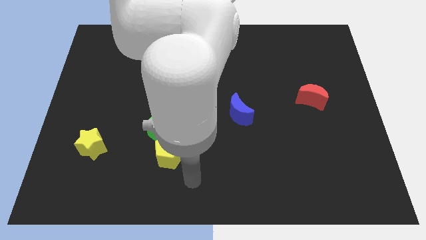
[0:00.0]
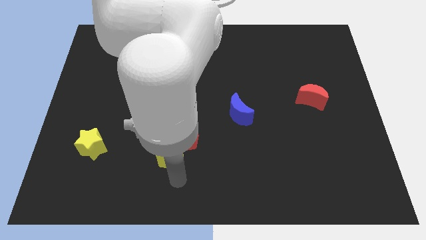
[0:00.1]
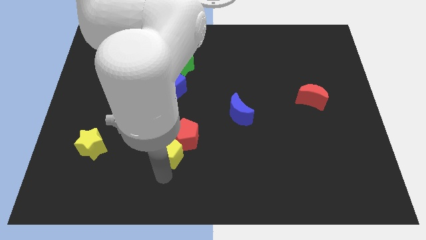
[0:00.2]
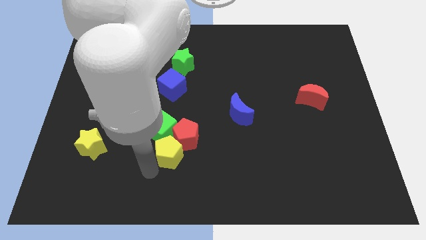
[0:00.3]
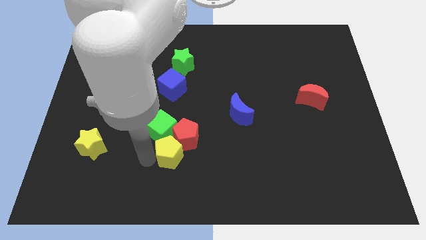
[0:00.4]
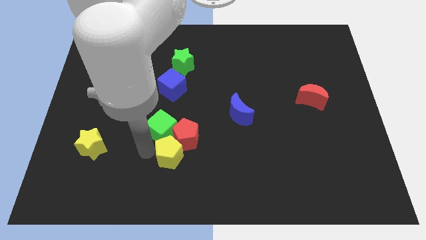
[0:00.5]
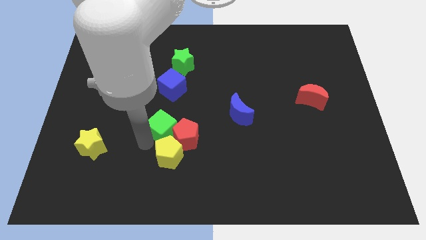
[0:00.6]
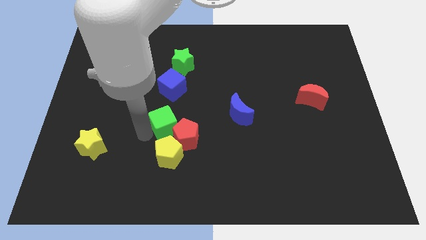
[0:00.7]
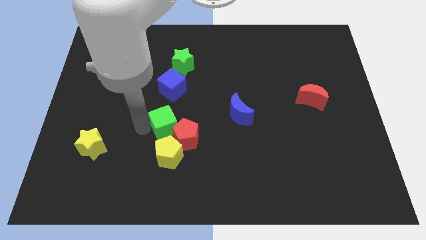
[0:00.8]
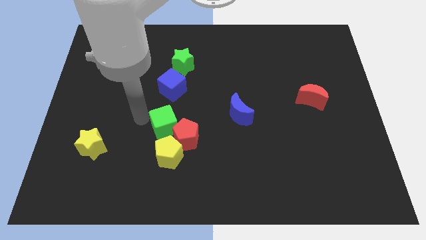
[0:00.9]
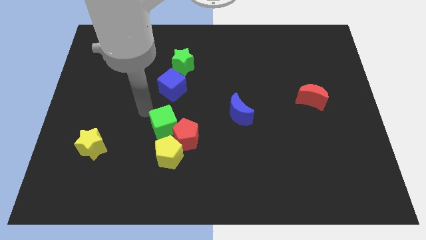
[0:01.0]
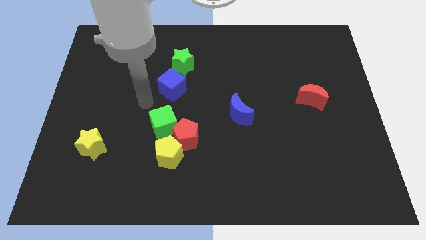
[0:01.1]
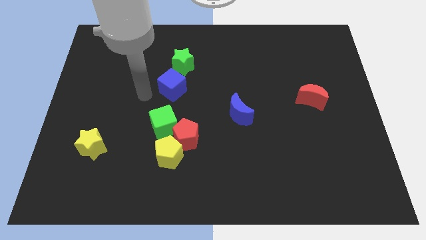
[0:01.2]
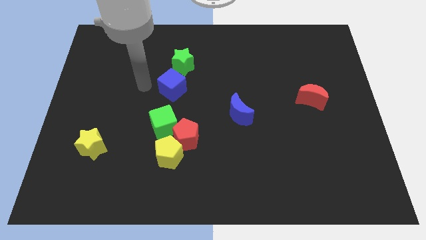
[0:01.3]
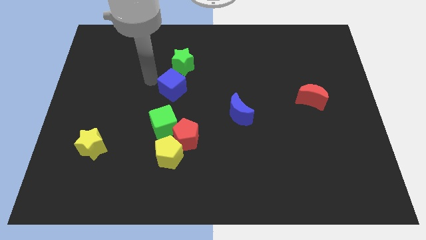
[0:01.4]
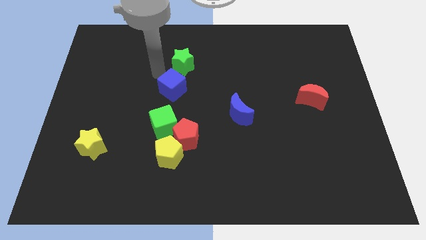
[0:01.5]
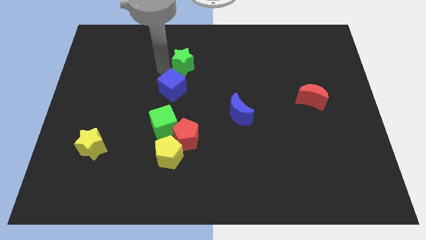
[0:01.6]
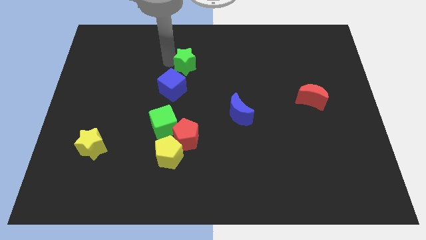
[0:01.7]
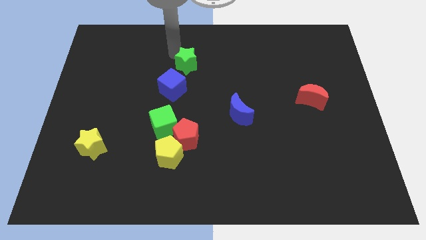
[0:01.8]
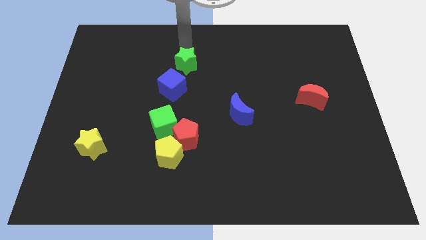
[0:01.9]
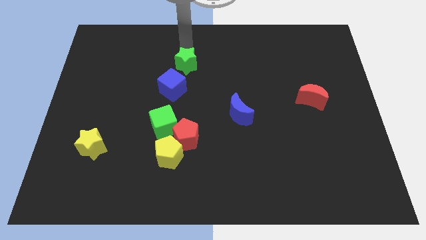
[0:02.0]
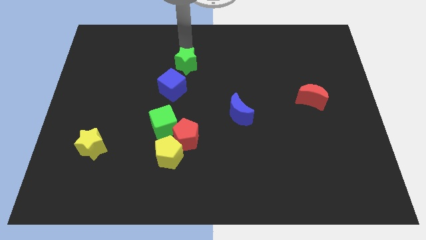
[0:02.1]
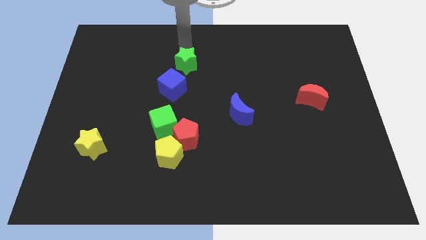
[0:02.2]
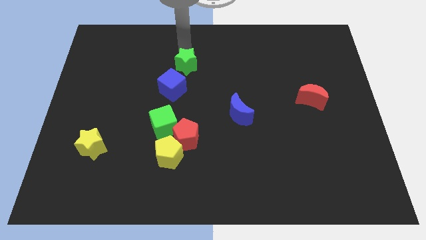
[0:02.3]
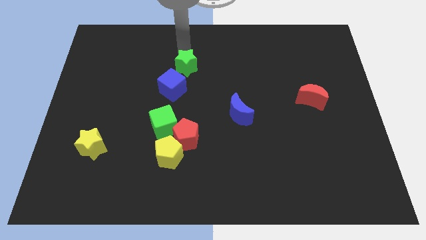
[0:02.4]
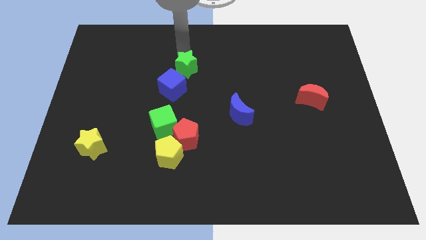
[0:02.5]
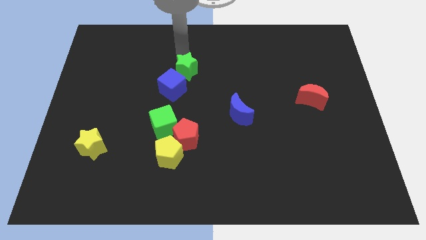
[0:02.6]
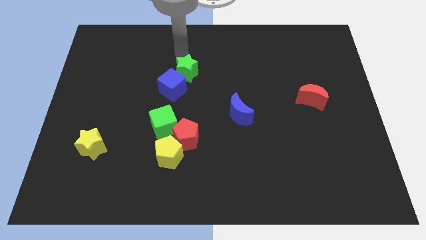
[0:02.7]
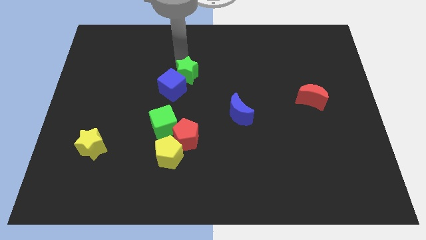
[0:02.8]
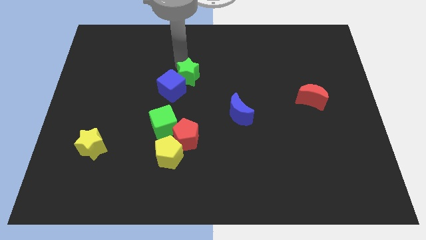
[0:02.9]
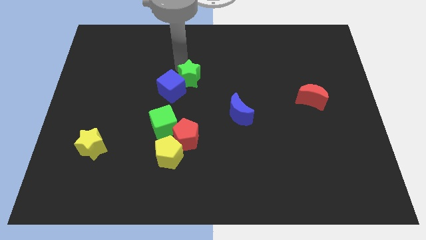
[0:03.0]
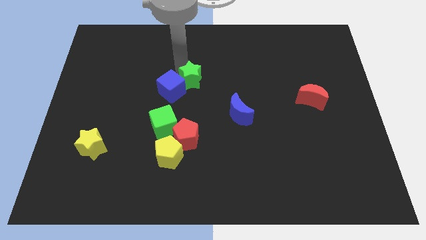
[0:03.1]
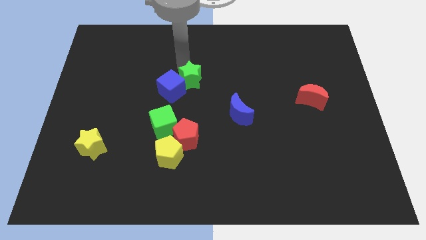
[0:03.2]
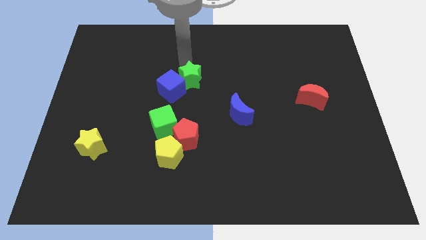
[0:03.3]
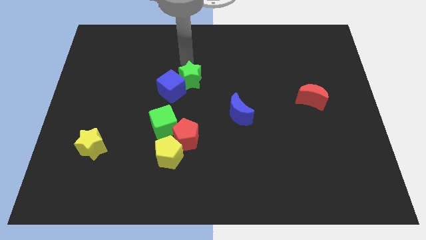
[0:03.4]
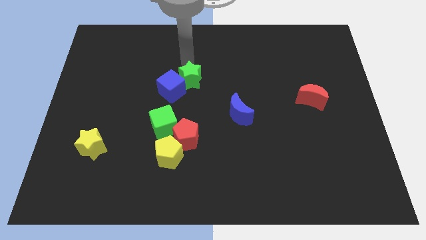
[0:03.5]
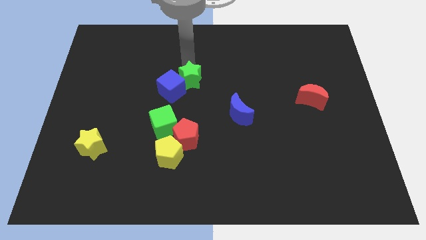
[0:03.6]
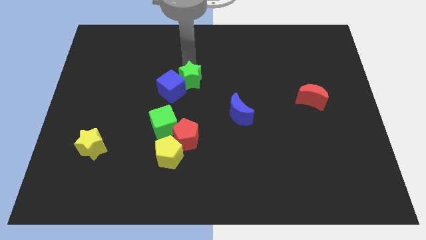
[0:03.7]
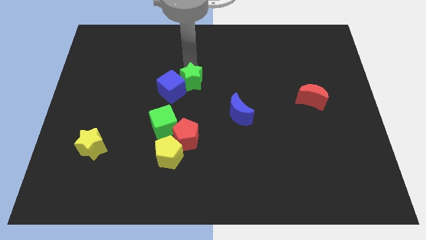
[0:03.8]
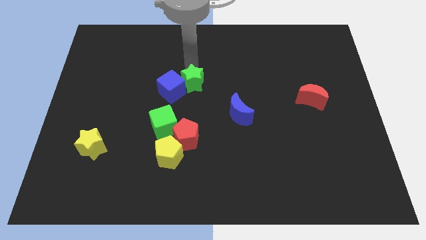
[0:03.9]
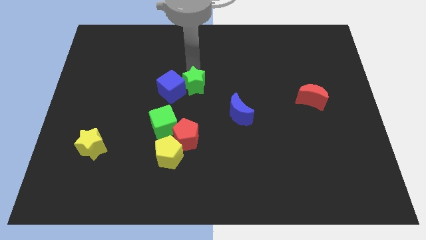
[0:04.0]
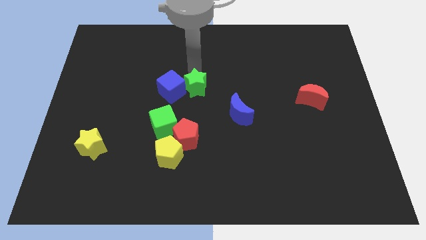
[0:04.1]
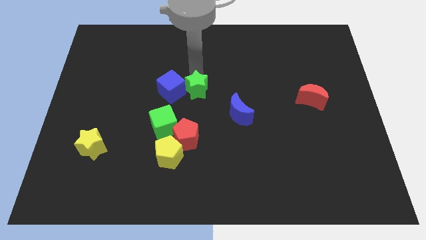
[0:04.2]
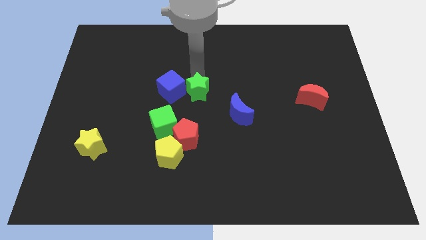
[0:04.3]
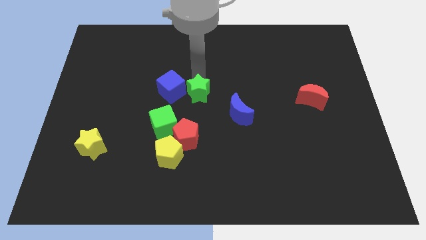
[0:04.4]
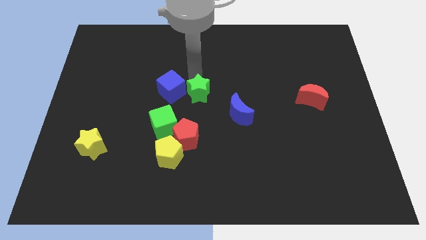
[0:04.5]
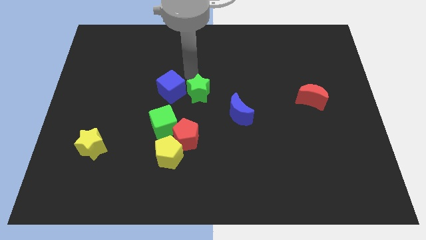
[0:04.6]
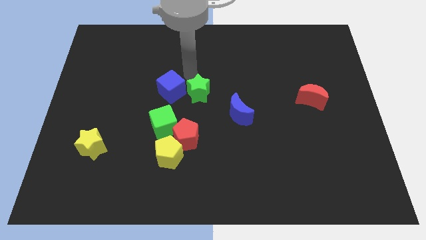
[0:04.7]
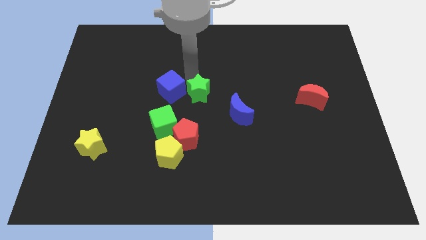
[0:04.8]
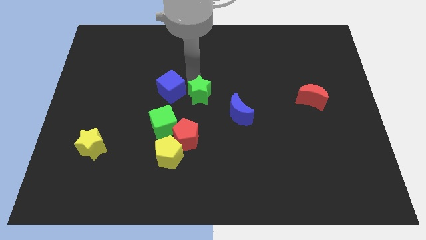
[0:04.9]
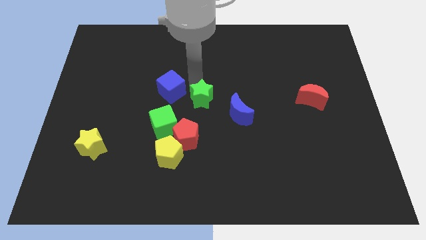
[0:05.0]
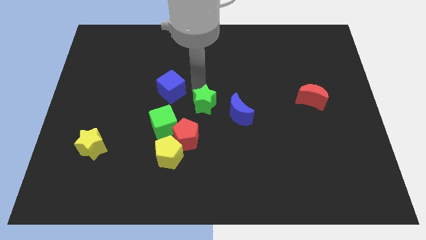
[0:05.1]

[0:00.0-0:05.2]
push the green star diagonally up and to the right of the red pentagon

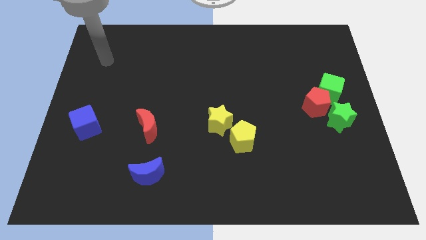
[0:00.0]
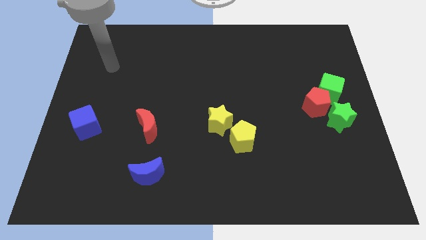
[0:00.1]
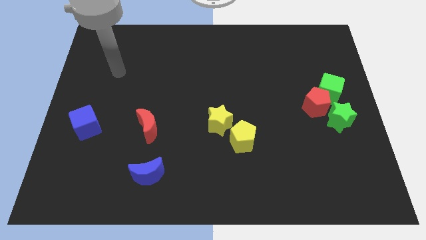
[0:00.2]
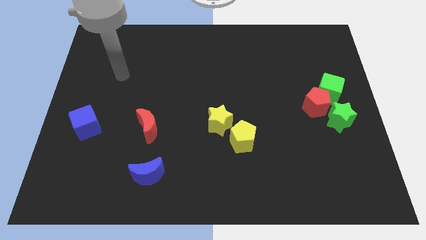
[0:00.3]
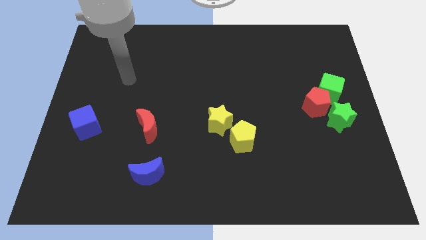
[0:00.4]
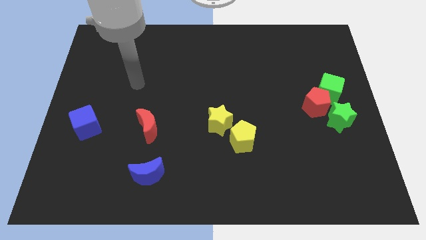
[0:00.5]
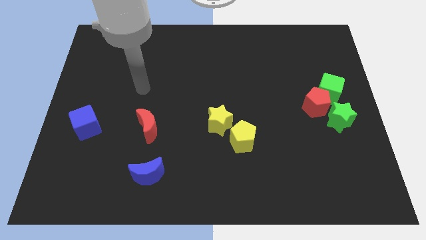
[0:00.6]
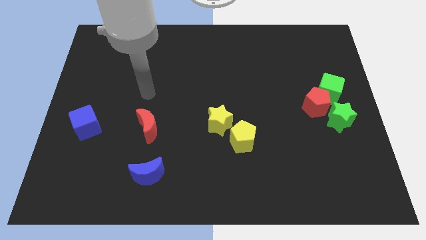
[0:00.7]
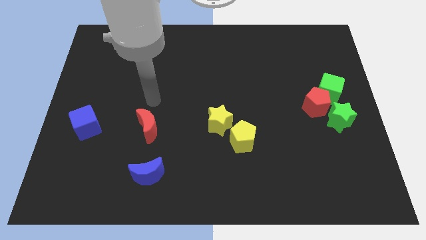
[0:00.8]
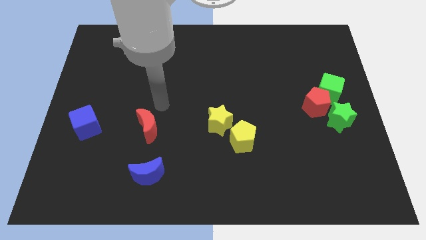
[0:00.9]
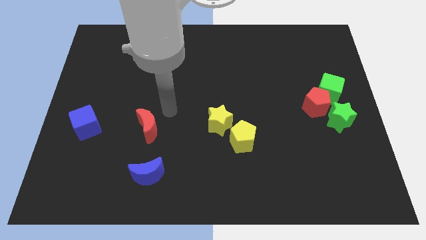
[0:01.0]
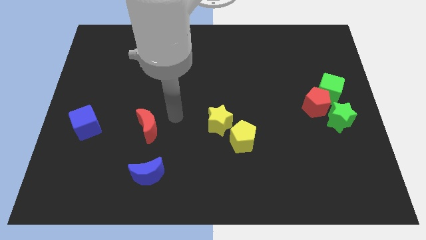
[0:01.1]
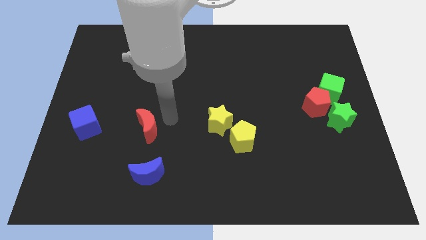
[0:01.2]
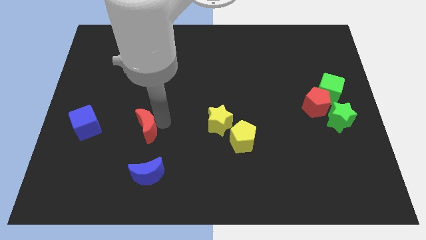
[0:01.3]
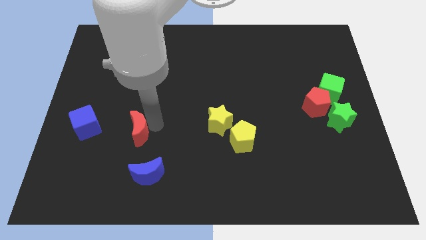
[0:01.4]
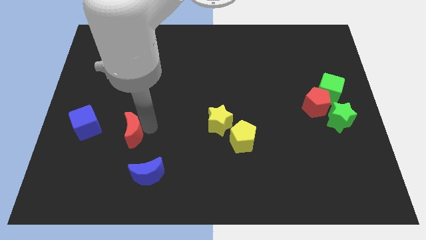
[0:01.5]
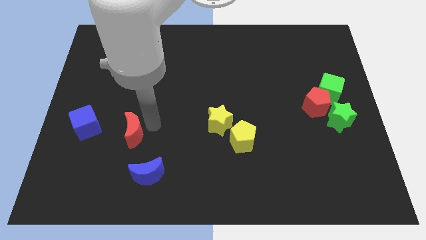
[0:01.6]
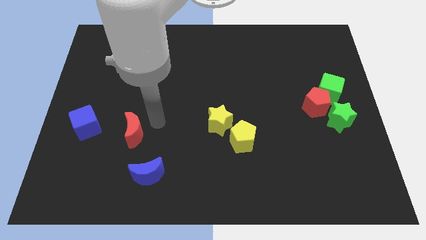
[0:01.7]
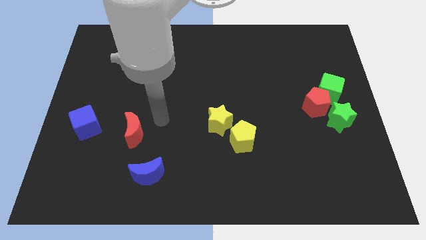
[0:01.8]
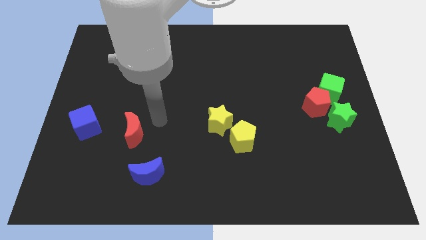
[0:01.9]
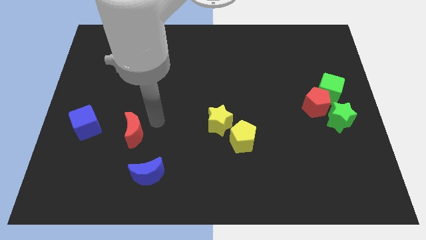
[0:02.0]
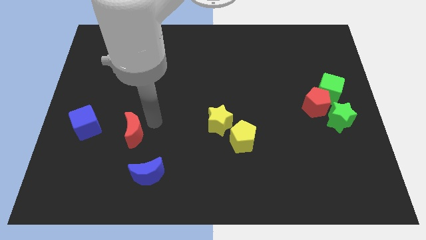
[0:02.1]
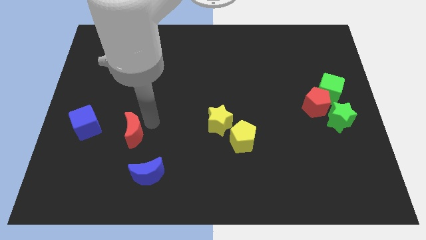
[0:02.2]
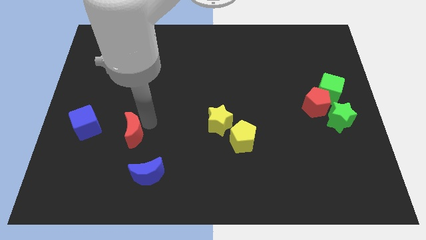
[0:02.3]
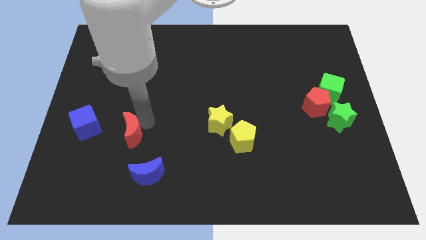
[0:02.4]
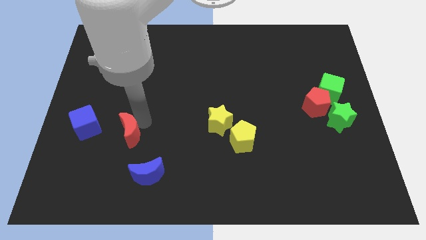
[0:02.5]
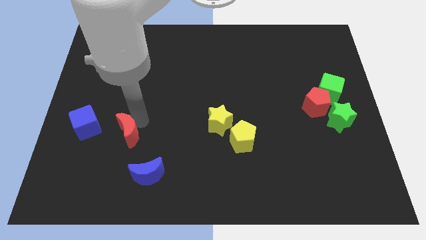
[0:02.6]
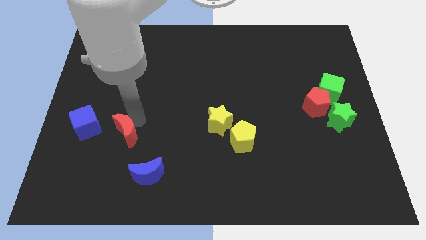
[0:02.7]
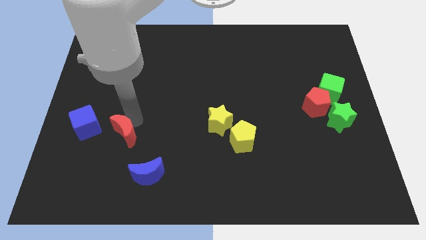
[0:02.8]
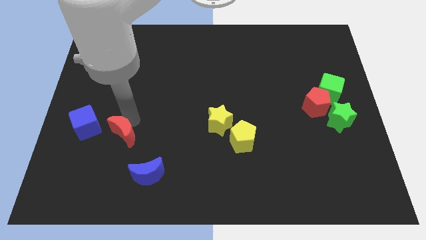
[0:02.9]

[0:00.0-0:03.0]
slide the red moon to the bottom right side of the blue cube
